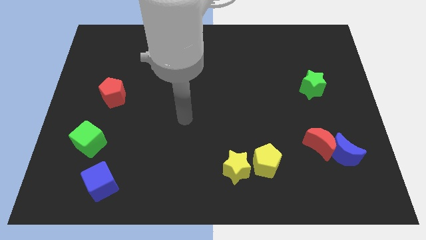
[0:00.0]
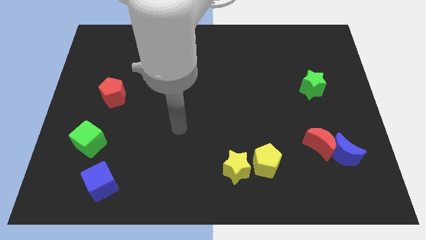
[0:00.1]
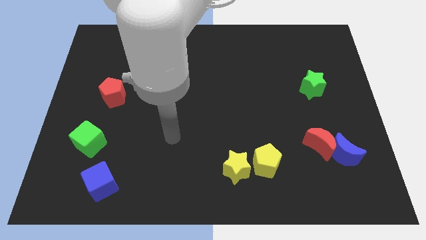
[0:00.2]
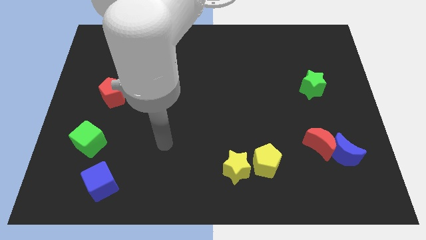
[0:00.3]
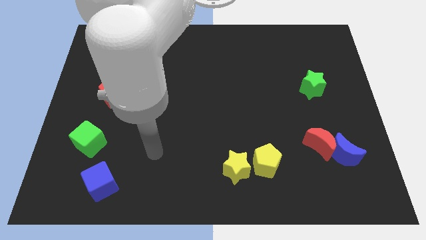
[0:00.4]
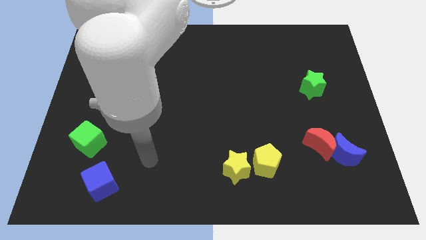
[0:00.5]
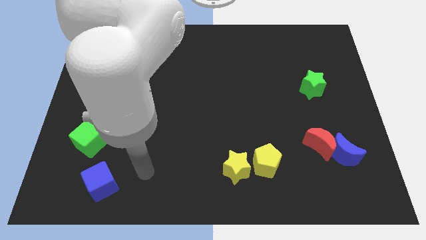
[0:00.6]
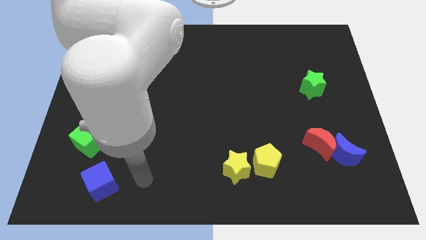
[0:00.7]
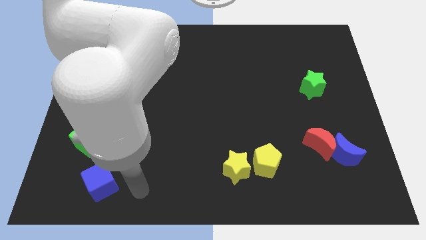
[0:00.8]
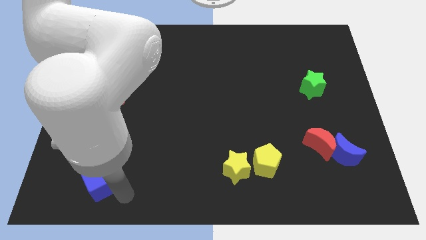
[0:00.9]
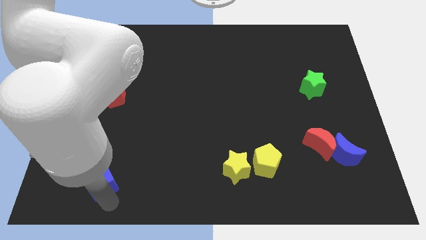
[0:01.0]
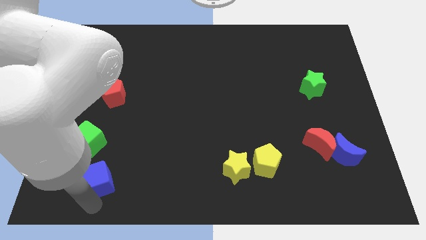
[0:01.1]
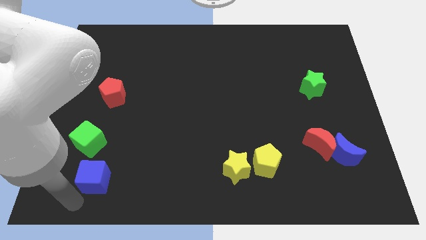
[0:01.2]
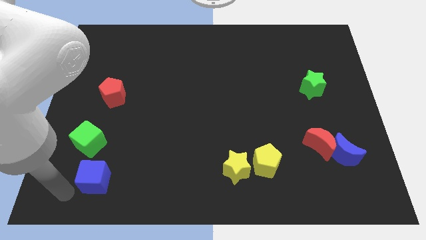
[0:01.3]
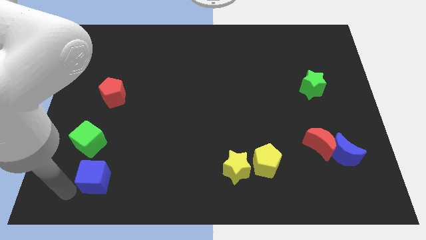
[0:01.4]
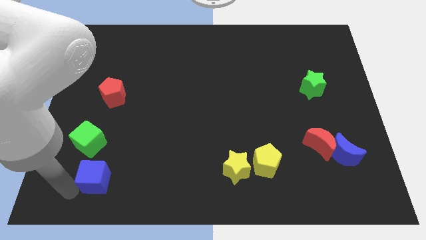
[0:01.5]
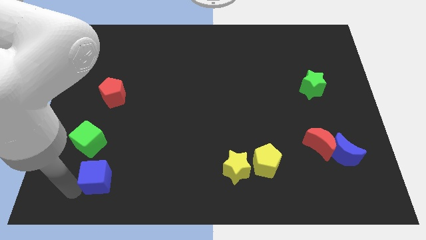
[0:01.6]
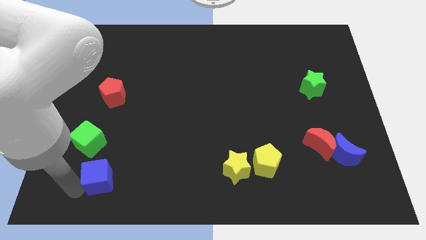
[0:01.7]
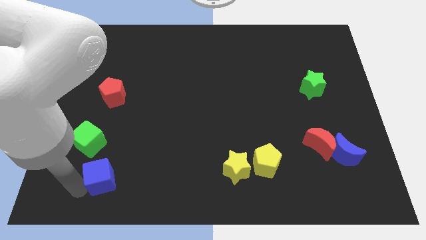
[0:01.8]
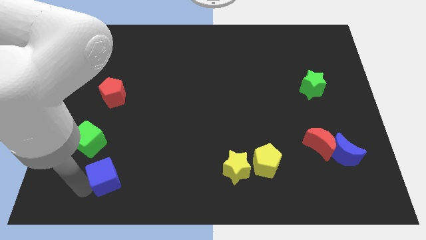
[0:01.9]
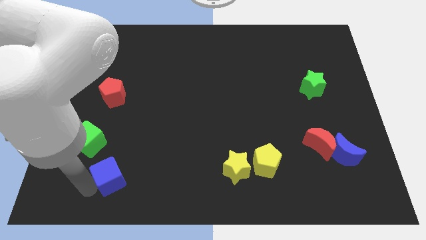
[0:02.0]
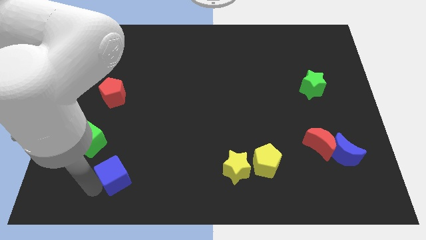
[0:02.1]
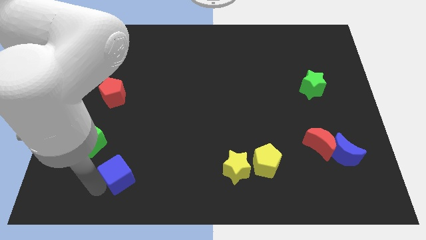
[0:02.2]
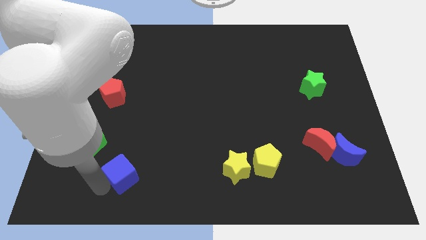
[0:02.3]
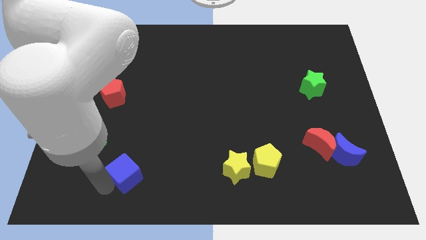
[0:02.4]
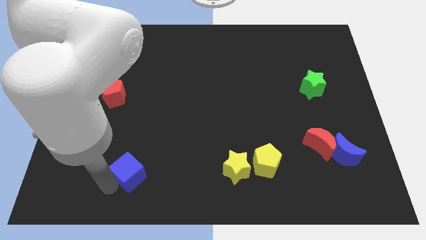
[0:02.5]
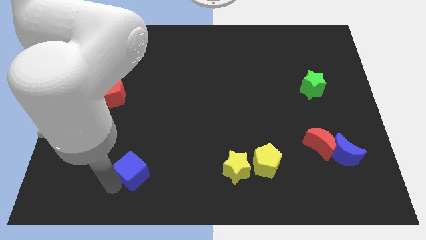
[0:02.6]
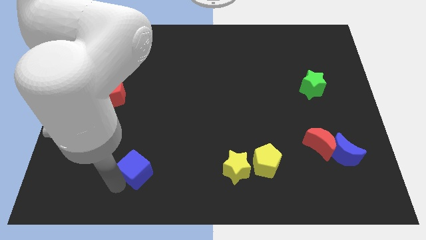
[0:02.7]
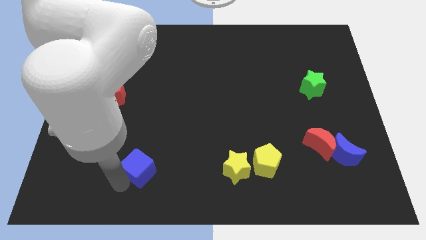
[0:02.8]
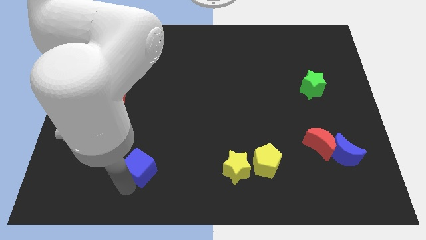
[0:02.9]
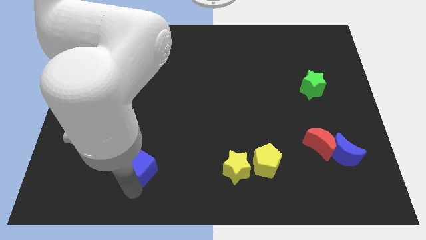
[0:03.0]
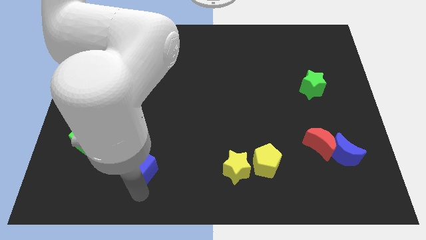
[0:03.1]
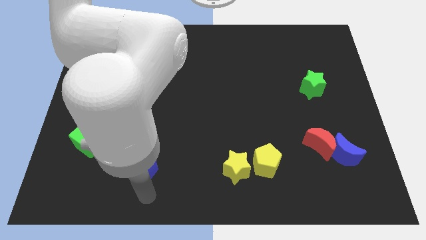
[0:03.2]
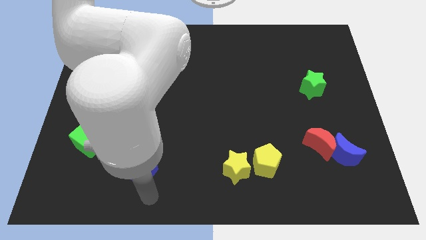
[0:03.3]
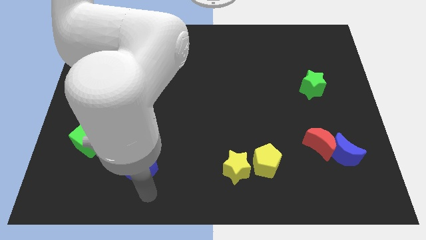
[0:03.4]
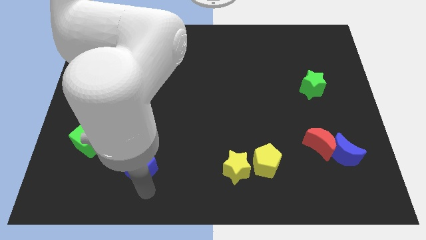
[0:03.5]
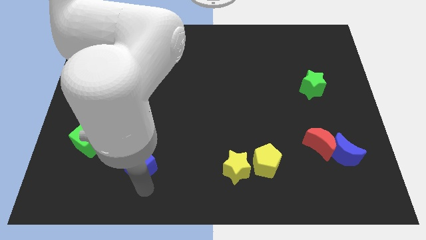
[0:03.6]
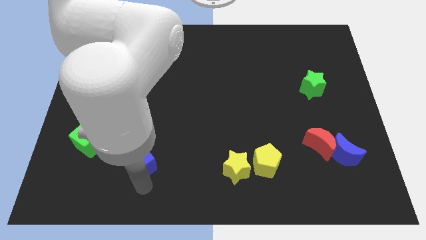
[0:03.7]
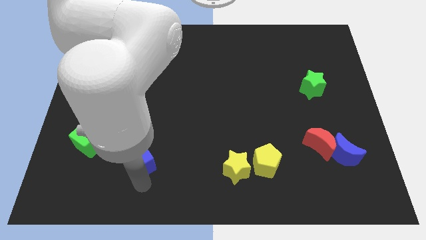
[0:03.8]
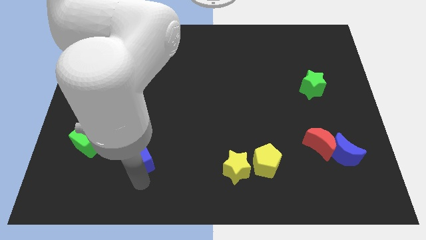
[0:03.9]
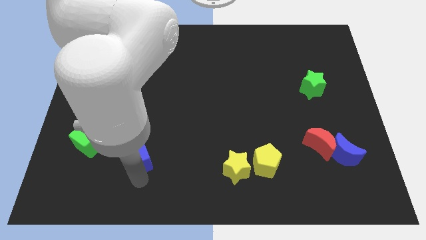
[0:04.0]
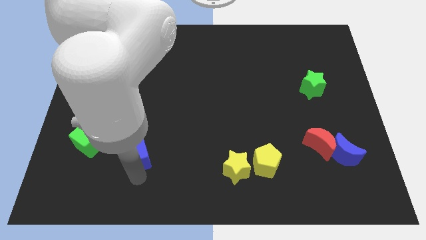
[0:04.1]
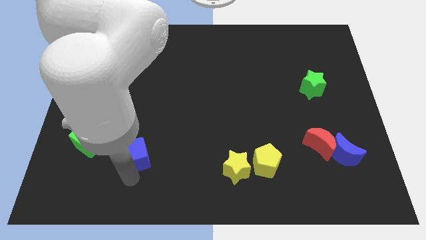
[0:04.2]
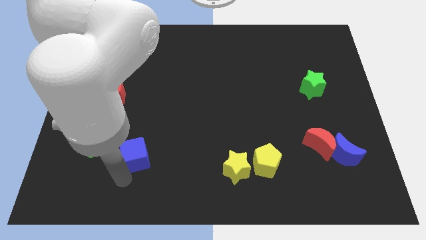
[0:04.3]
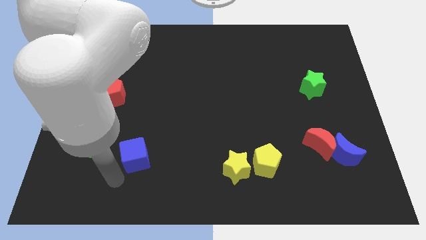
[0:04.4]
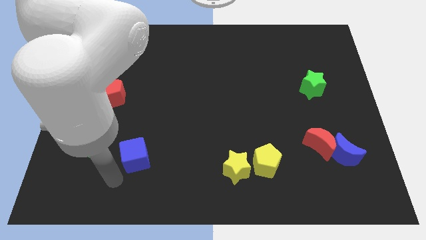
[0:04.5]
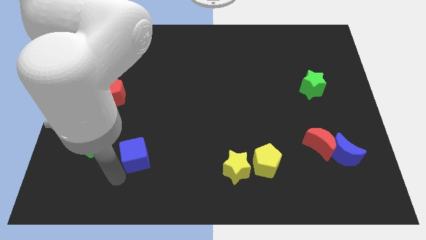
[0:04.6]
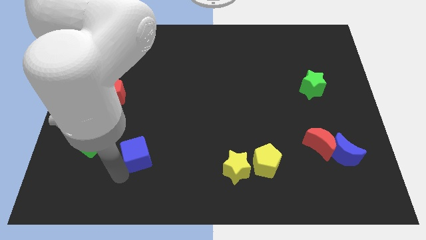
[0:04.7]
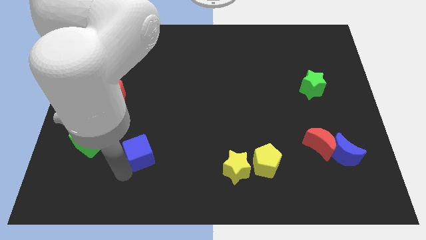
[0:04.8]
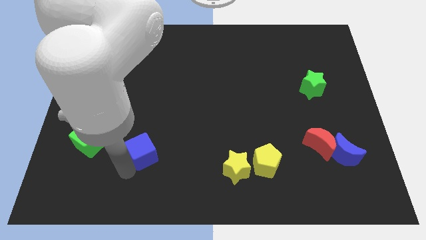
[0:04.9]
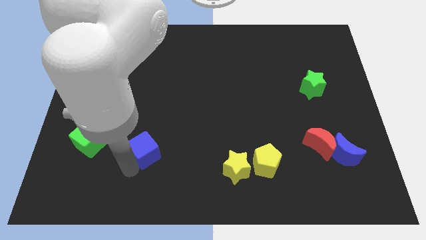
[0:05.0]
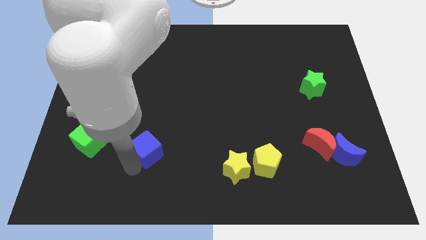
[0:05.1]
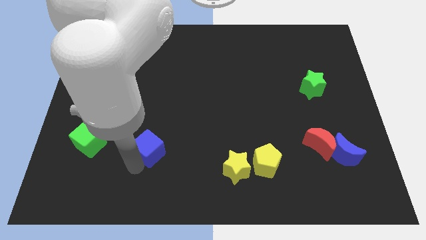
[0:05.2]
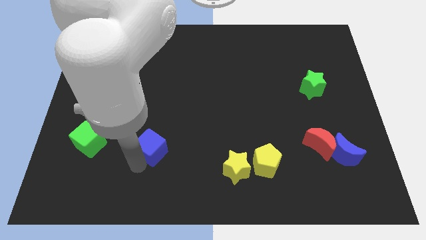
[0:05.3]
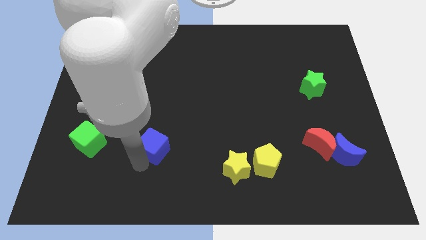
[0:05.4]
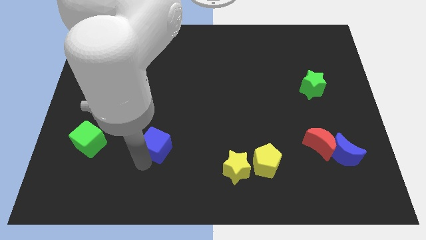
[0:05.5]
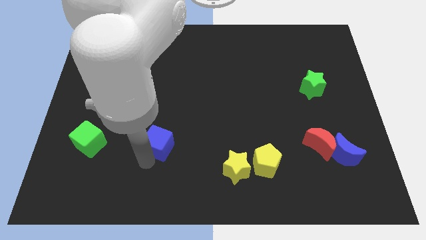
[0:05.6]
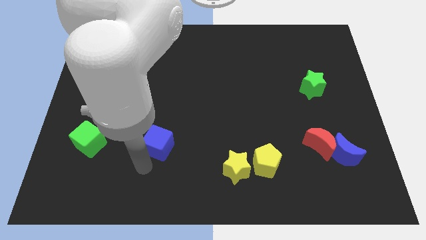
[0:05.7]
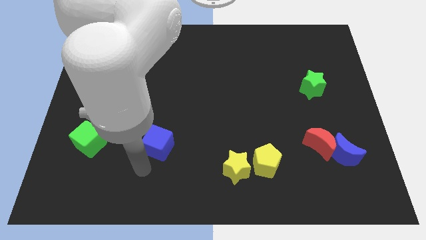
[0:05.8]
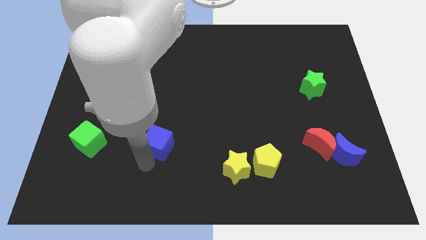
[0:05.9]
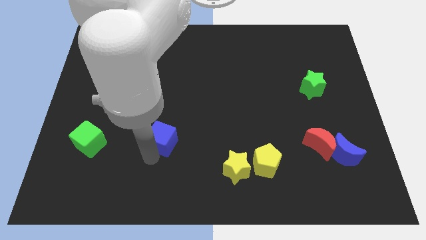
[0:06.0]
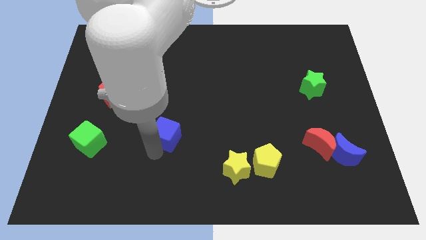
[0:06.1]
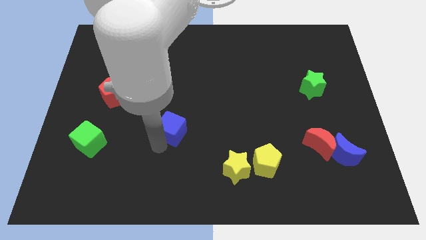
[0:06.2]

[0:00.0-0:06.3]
slide the blue cube to the middle

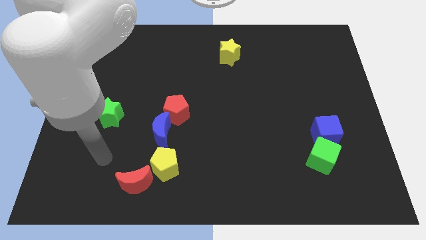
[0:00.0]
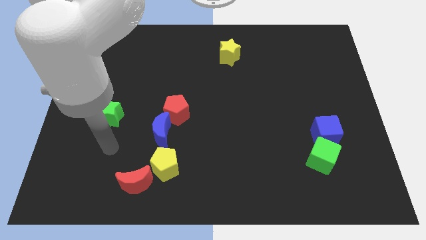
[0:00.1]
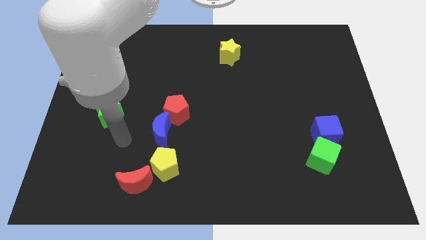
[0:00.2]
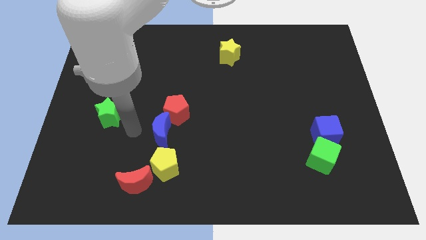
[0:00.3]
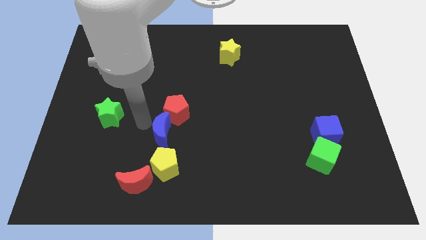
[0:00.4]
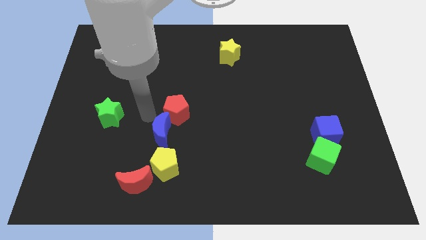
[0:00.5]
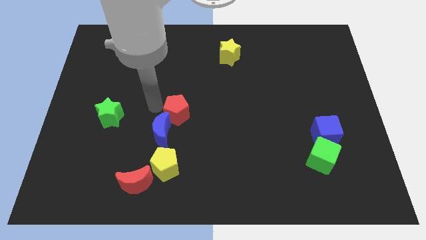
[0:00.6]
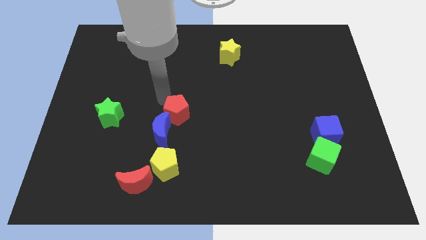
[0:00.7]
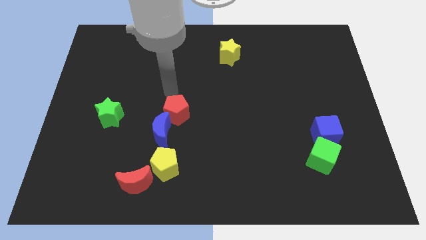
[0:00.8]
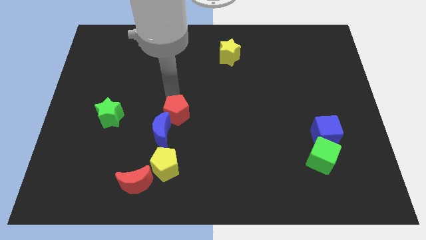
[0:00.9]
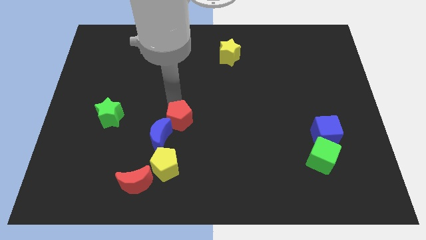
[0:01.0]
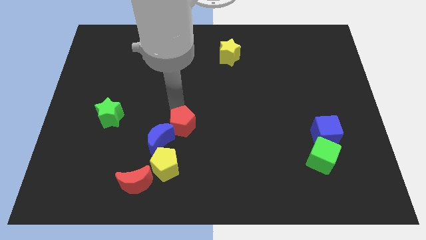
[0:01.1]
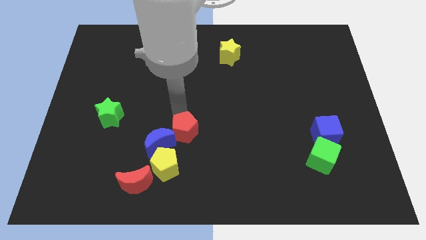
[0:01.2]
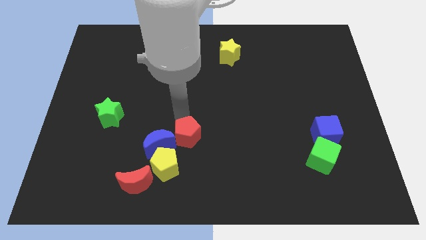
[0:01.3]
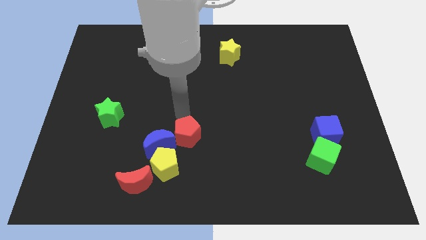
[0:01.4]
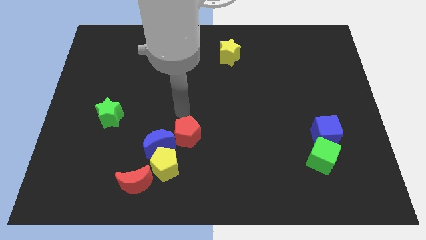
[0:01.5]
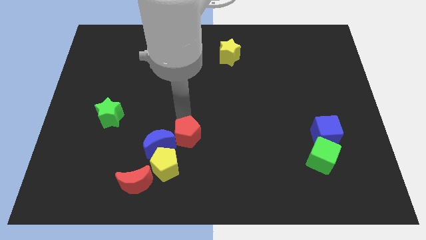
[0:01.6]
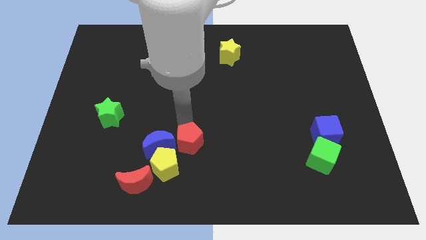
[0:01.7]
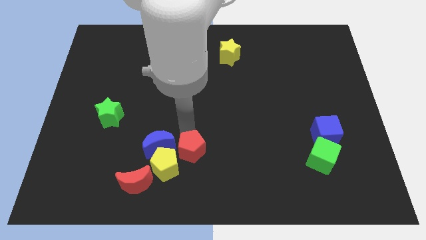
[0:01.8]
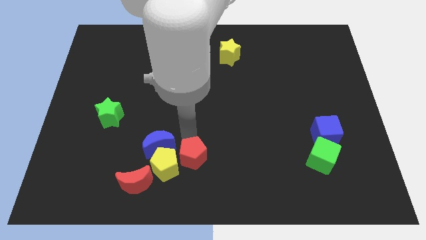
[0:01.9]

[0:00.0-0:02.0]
push the red pentagon to the bottom side
